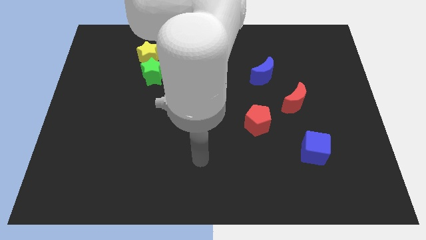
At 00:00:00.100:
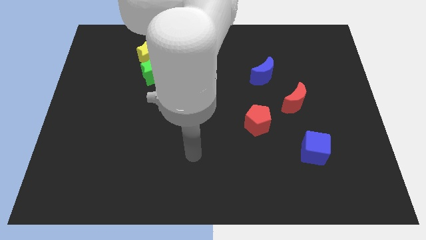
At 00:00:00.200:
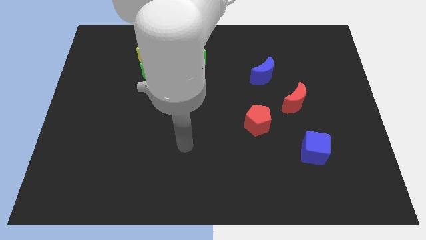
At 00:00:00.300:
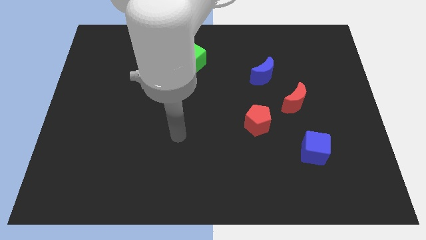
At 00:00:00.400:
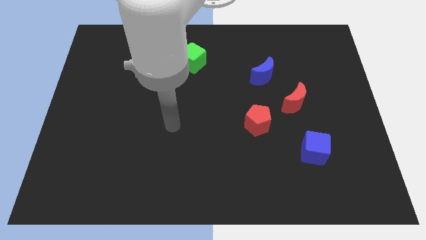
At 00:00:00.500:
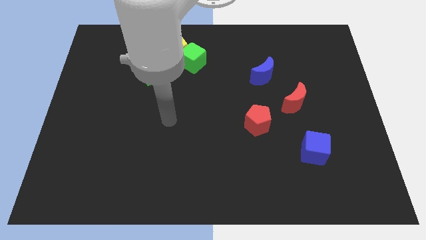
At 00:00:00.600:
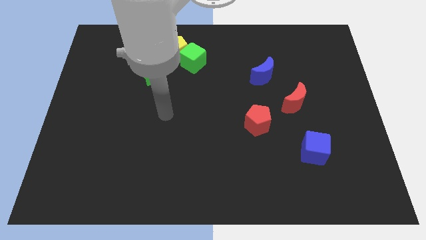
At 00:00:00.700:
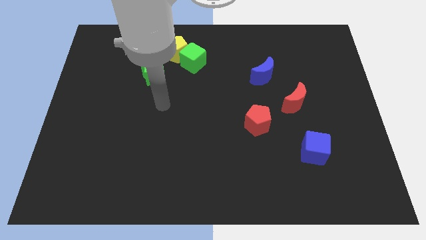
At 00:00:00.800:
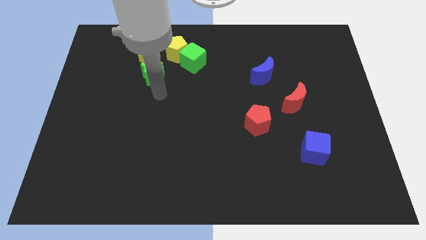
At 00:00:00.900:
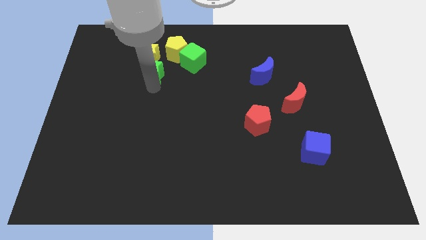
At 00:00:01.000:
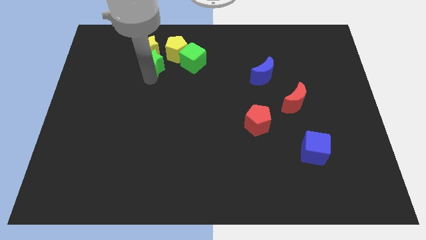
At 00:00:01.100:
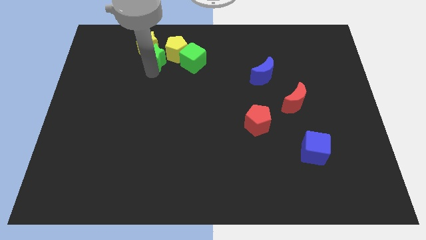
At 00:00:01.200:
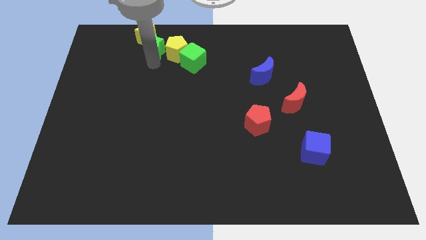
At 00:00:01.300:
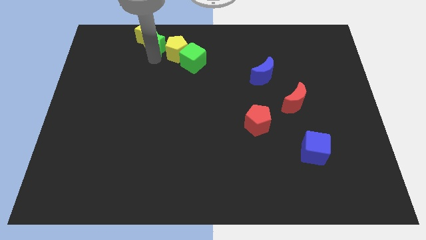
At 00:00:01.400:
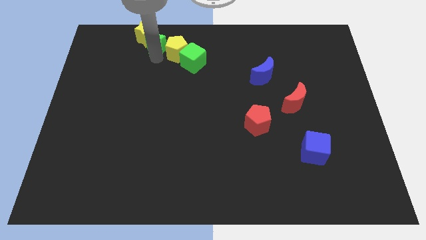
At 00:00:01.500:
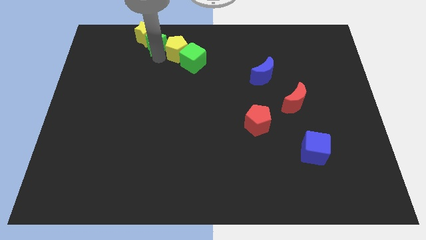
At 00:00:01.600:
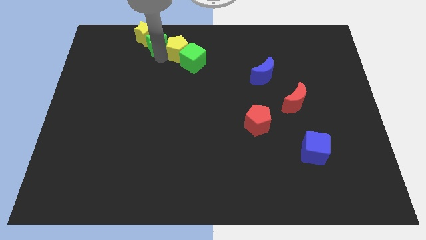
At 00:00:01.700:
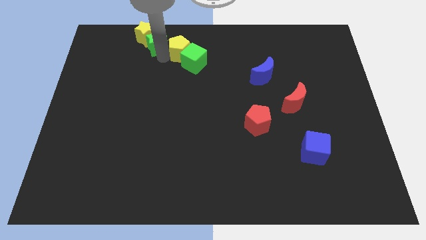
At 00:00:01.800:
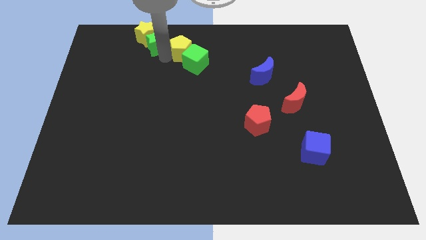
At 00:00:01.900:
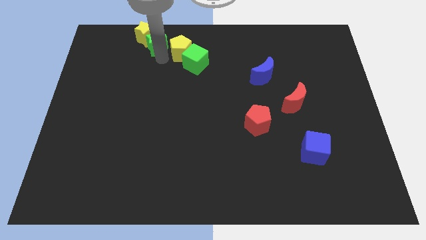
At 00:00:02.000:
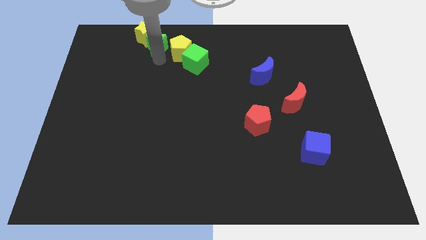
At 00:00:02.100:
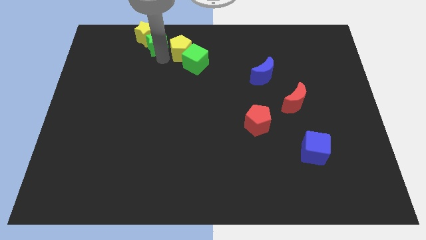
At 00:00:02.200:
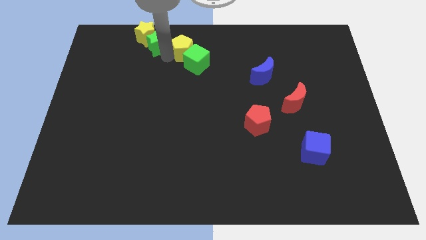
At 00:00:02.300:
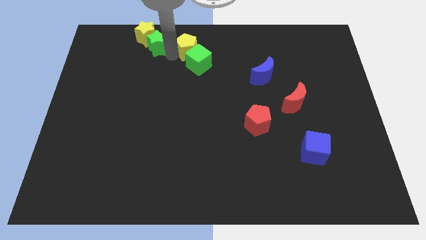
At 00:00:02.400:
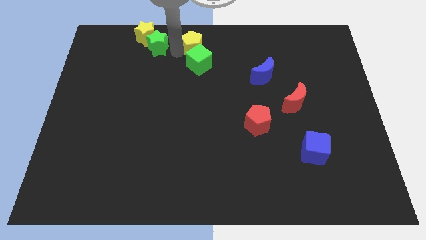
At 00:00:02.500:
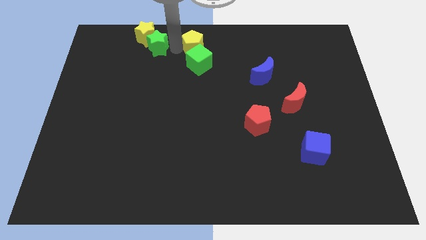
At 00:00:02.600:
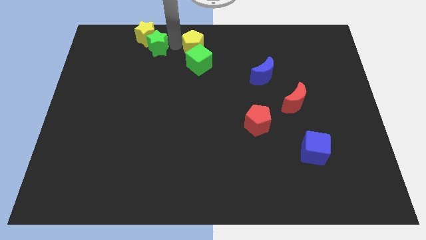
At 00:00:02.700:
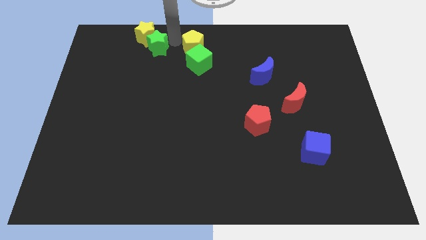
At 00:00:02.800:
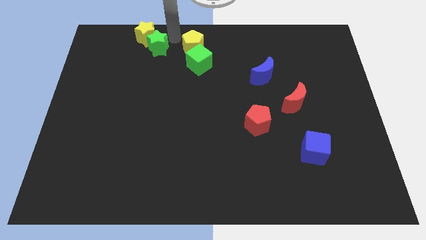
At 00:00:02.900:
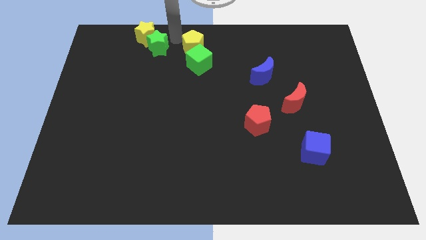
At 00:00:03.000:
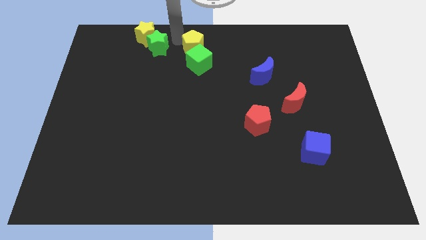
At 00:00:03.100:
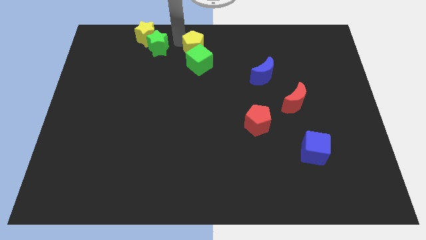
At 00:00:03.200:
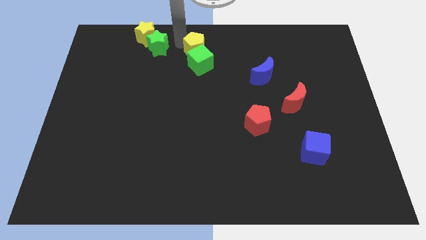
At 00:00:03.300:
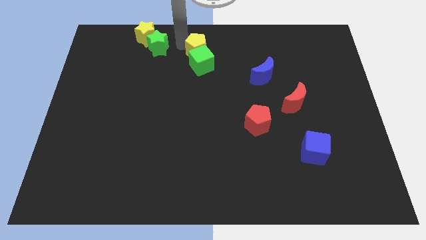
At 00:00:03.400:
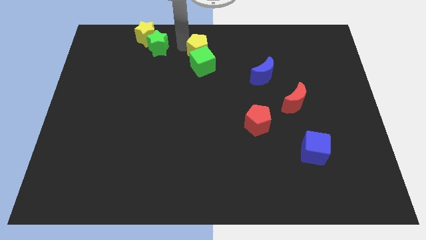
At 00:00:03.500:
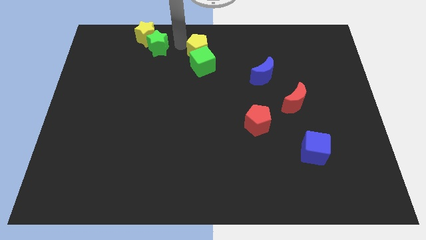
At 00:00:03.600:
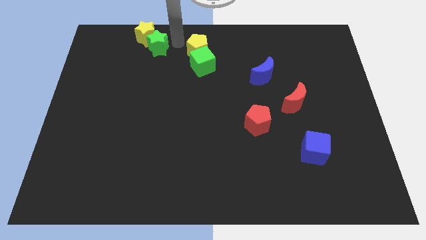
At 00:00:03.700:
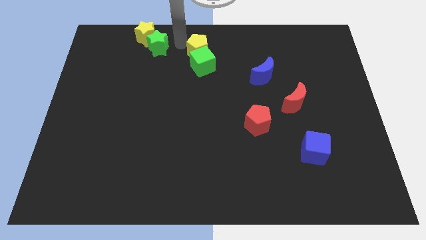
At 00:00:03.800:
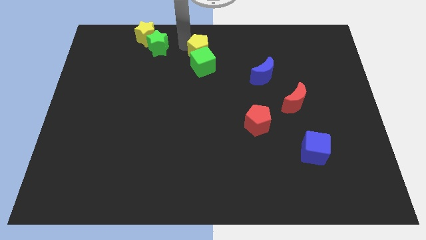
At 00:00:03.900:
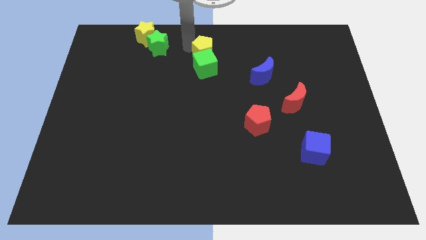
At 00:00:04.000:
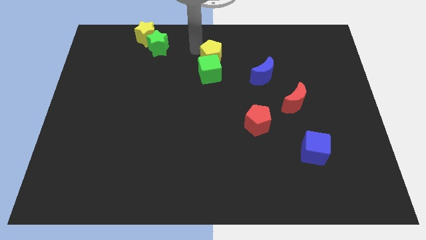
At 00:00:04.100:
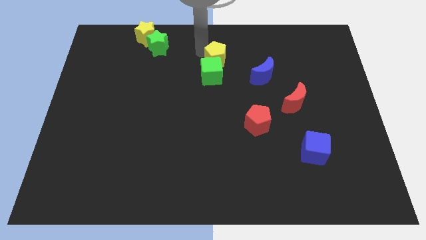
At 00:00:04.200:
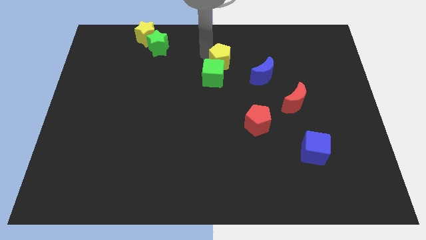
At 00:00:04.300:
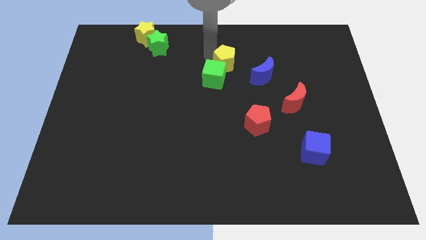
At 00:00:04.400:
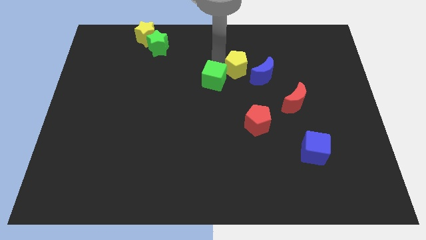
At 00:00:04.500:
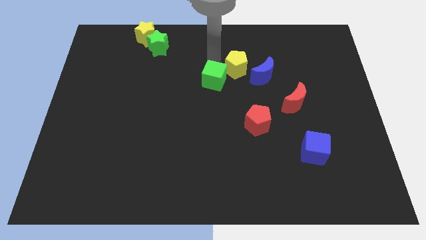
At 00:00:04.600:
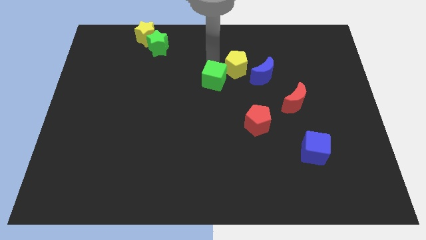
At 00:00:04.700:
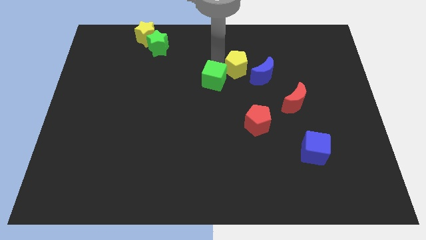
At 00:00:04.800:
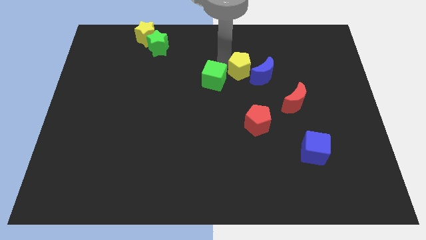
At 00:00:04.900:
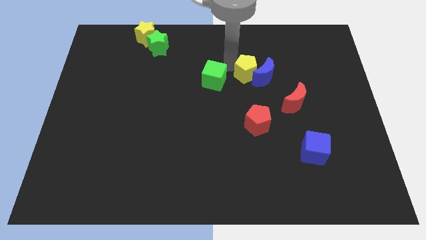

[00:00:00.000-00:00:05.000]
push the yellow pentagon close to the blue moon
